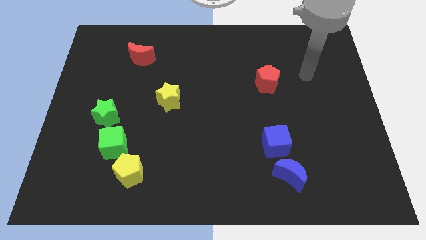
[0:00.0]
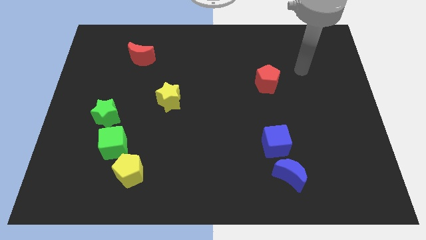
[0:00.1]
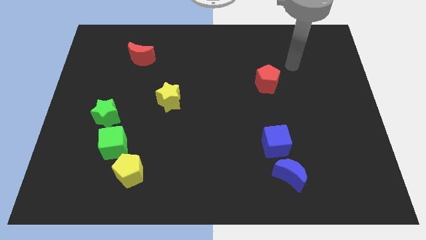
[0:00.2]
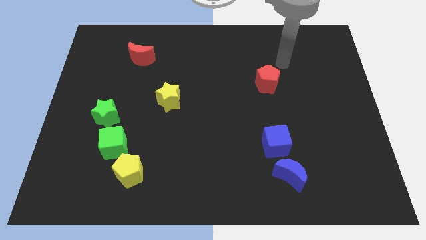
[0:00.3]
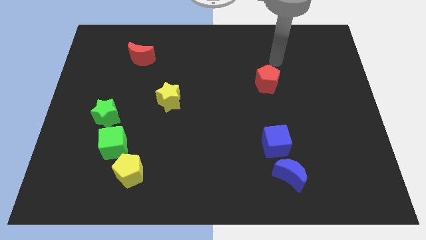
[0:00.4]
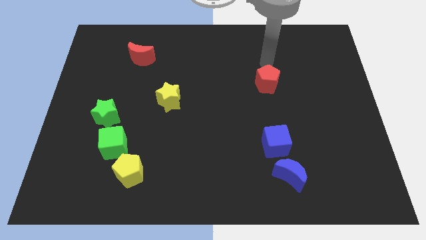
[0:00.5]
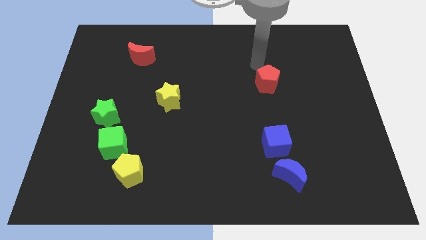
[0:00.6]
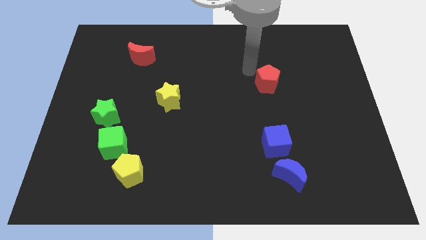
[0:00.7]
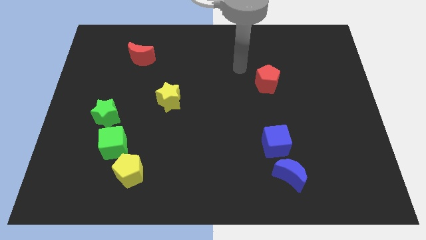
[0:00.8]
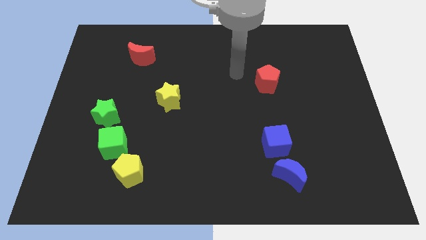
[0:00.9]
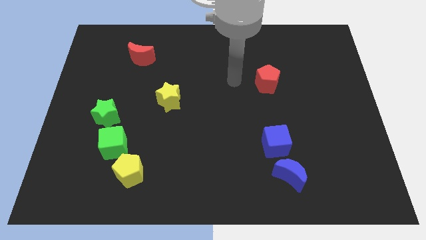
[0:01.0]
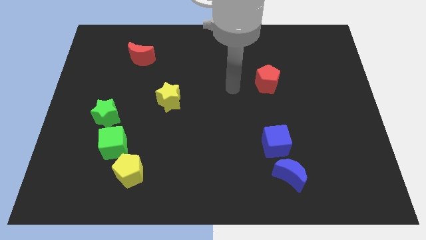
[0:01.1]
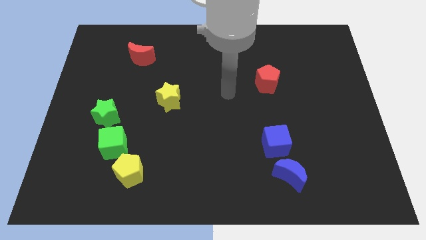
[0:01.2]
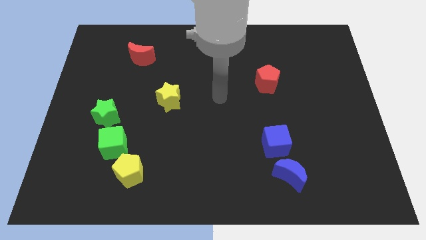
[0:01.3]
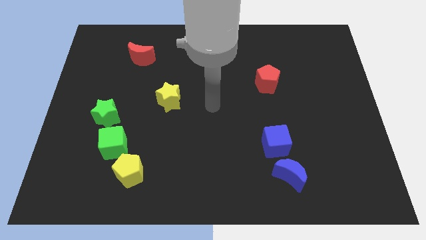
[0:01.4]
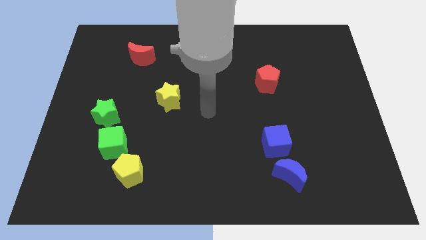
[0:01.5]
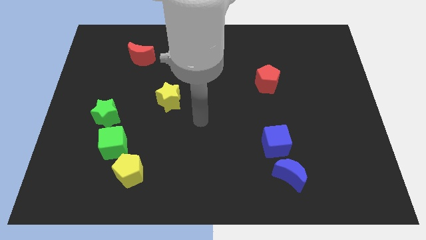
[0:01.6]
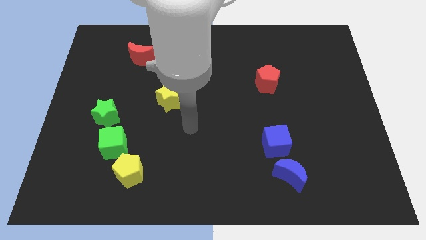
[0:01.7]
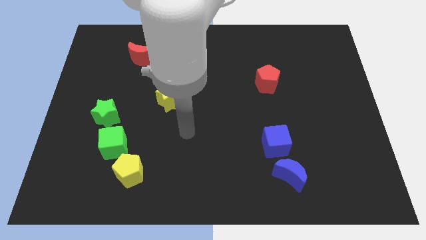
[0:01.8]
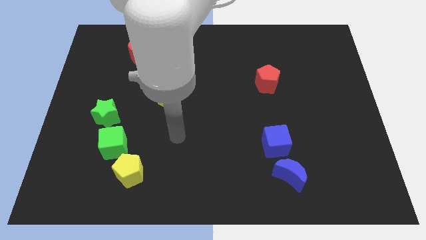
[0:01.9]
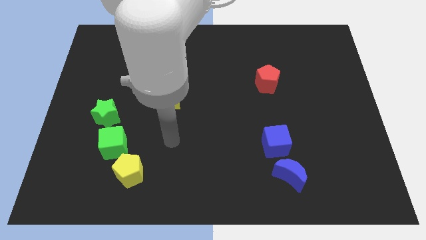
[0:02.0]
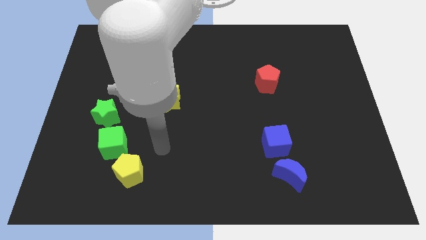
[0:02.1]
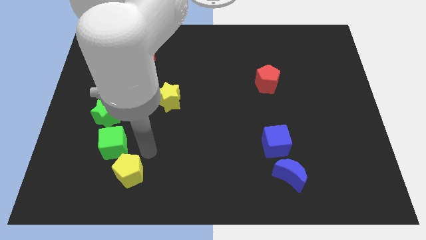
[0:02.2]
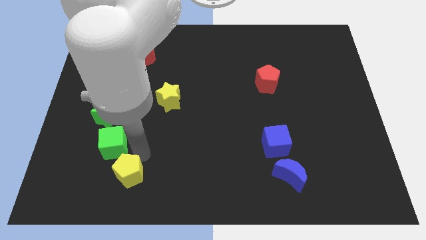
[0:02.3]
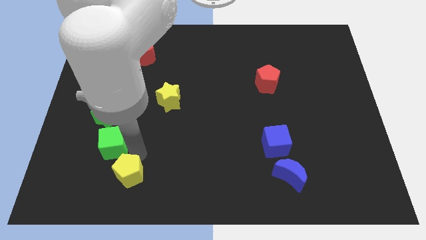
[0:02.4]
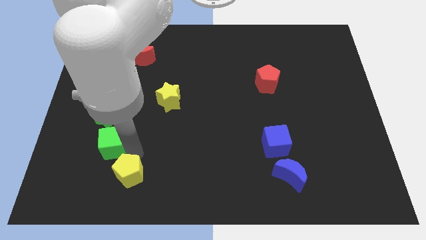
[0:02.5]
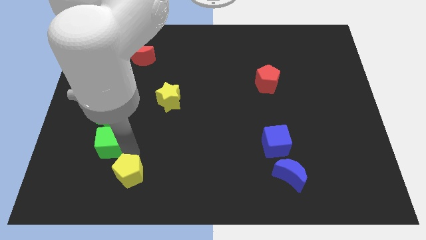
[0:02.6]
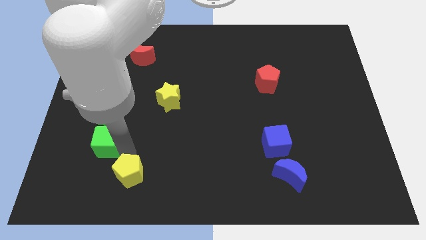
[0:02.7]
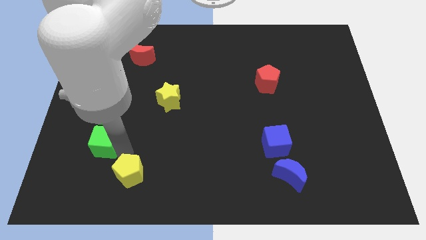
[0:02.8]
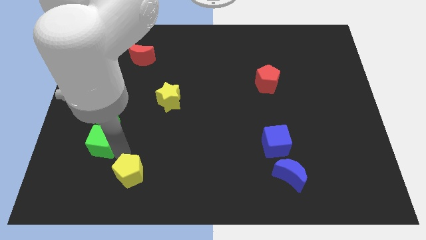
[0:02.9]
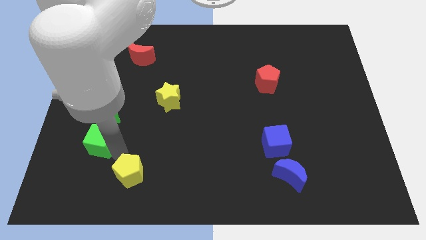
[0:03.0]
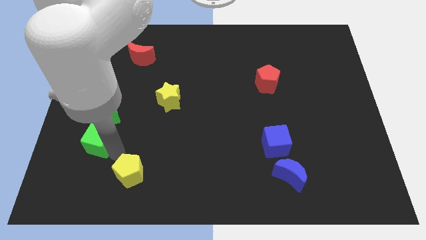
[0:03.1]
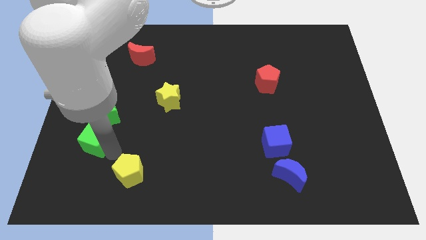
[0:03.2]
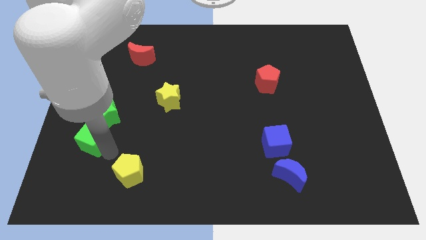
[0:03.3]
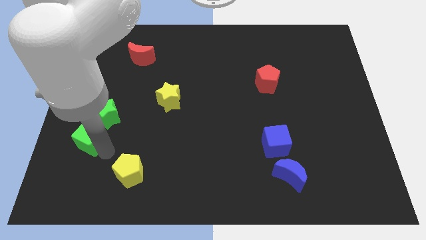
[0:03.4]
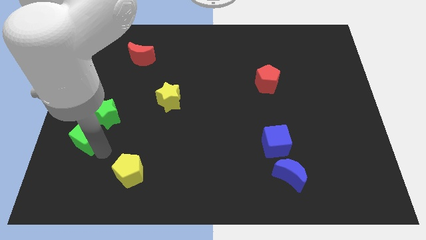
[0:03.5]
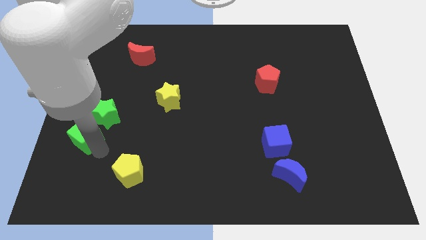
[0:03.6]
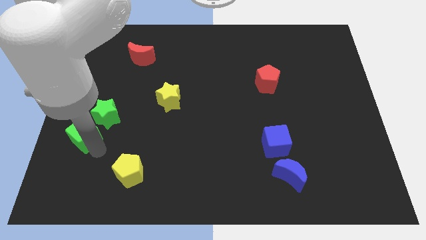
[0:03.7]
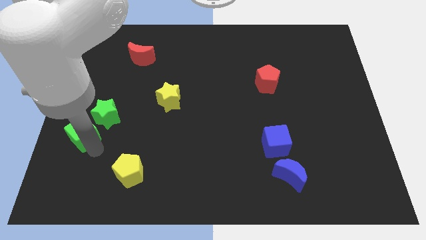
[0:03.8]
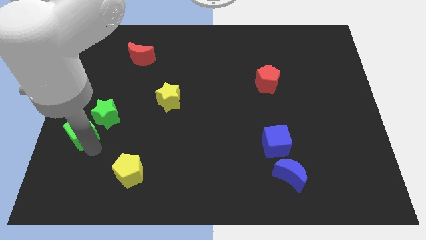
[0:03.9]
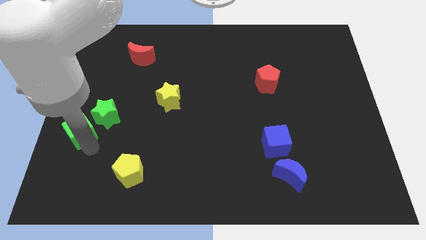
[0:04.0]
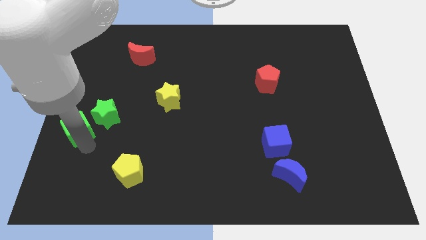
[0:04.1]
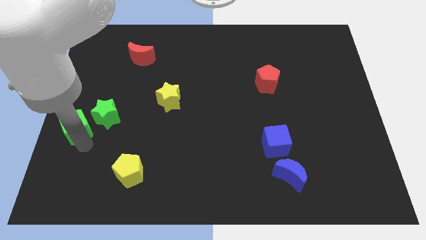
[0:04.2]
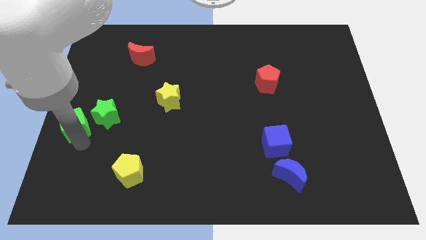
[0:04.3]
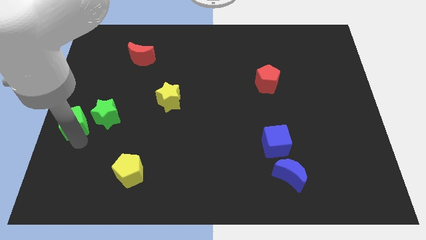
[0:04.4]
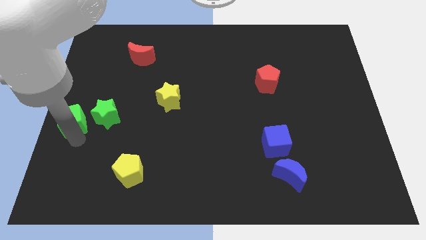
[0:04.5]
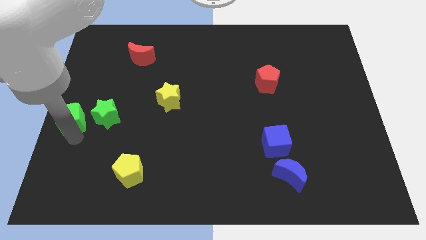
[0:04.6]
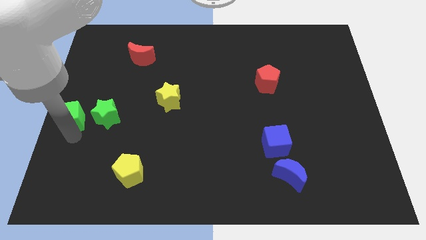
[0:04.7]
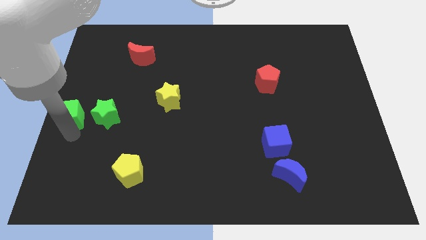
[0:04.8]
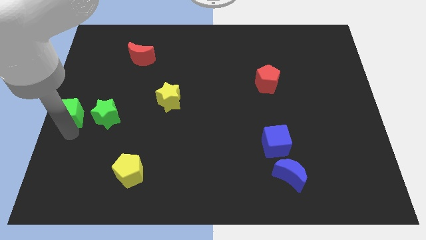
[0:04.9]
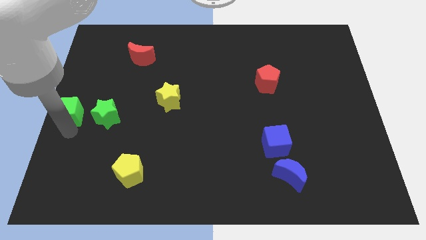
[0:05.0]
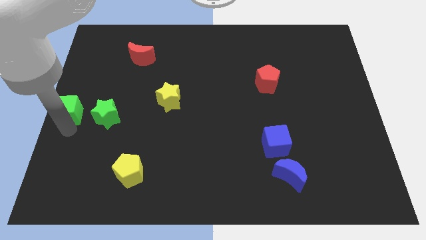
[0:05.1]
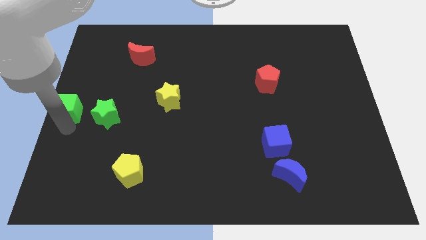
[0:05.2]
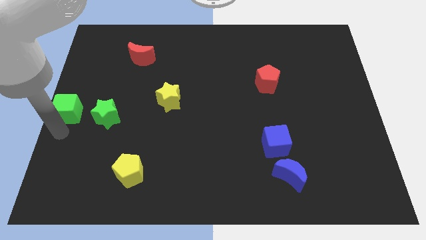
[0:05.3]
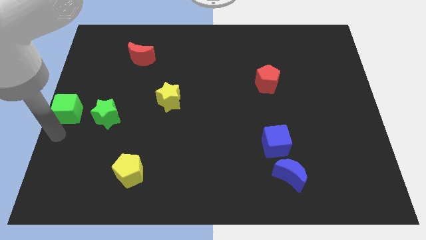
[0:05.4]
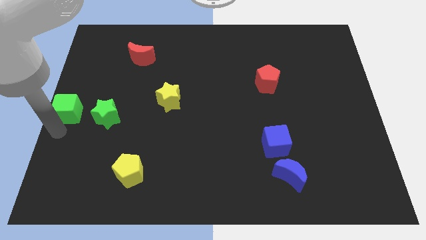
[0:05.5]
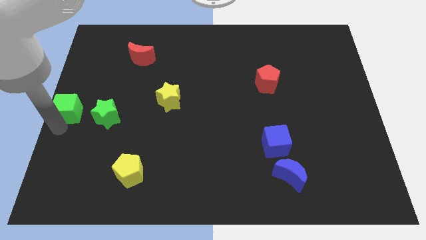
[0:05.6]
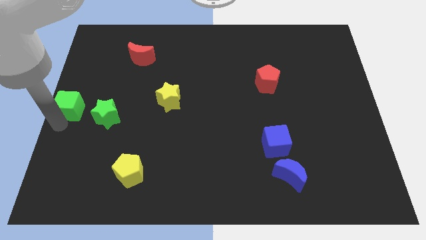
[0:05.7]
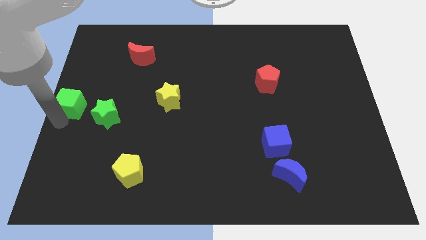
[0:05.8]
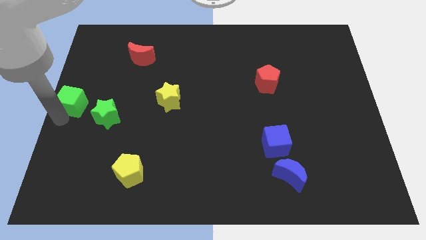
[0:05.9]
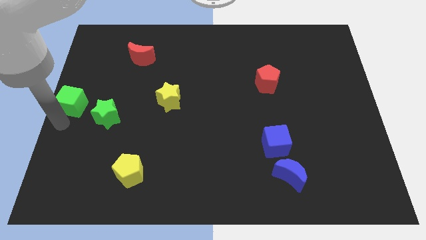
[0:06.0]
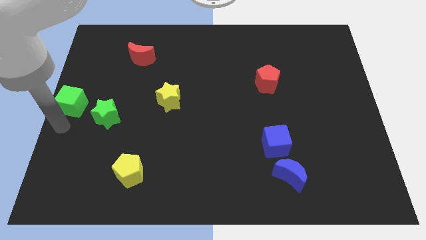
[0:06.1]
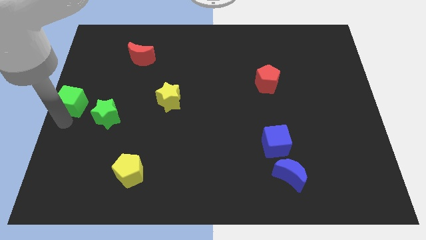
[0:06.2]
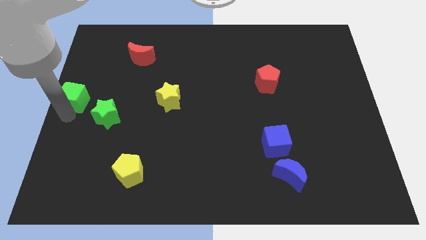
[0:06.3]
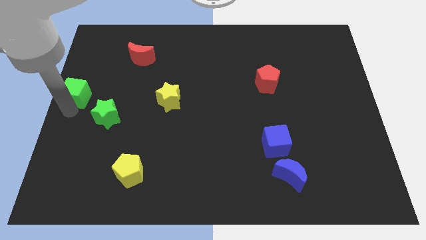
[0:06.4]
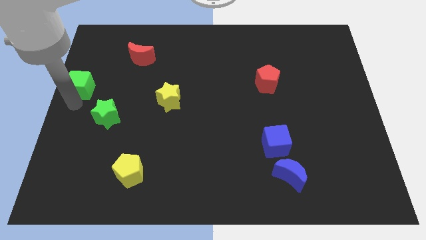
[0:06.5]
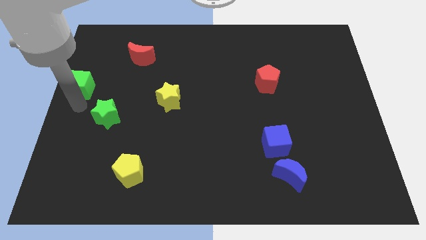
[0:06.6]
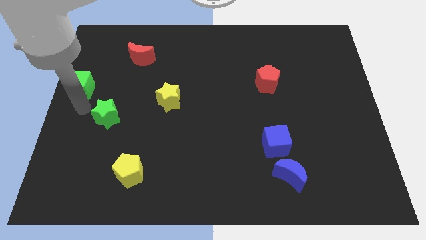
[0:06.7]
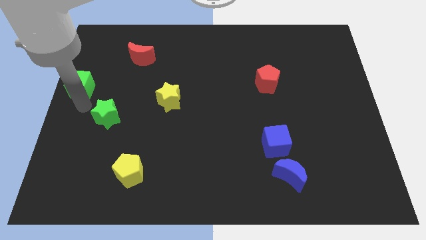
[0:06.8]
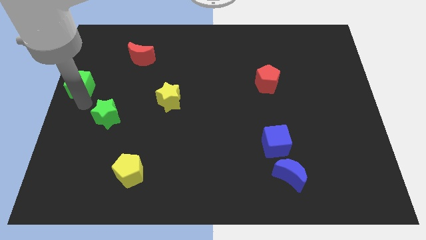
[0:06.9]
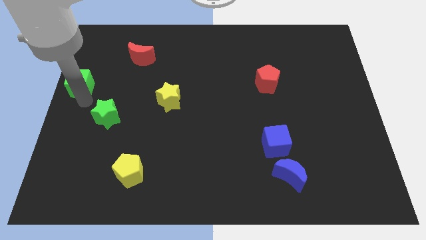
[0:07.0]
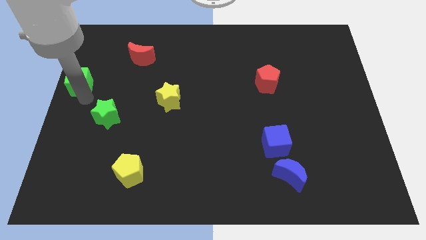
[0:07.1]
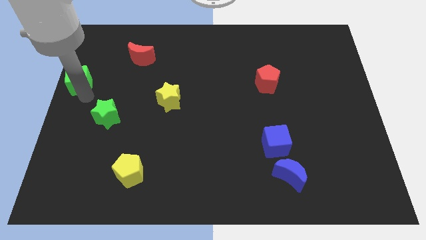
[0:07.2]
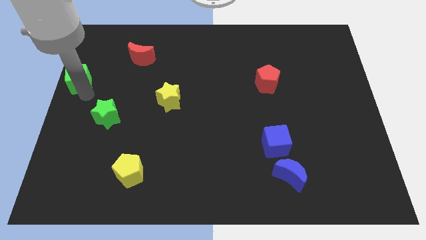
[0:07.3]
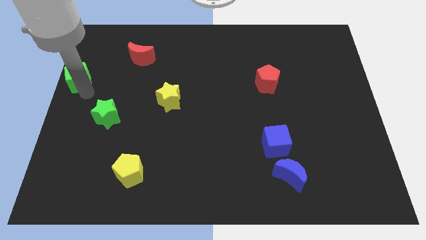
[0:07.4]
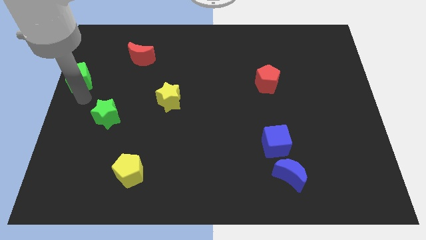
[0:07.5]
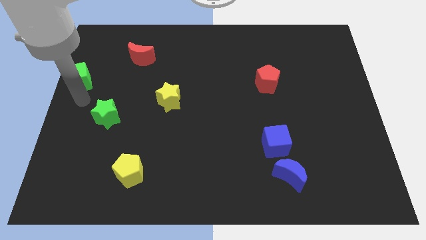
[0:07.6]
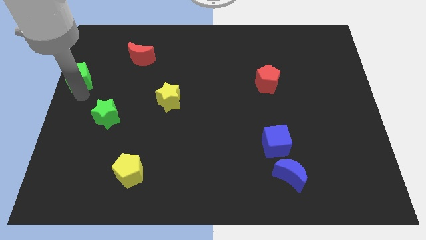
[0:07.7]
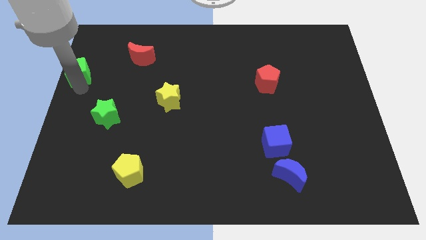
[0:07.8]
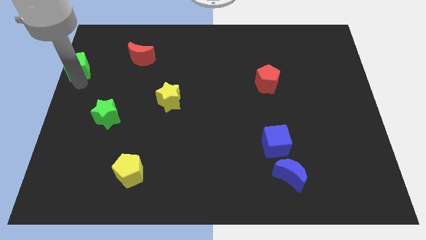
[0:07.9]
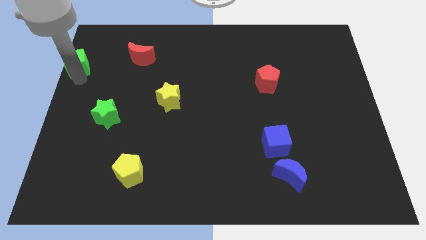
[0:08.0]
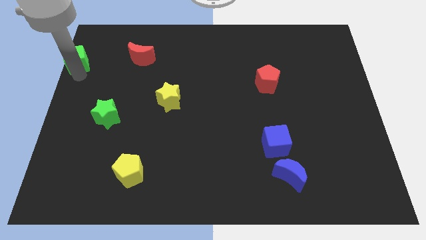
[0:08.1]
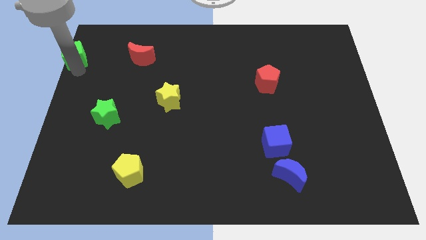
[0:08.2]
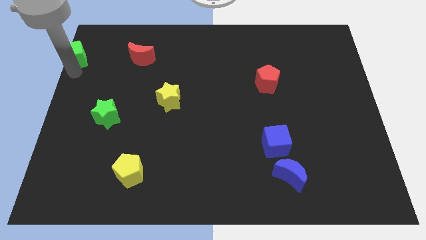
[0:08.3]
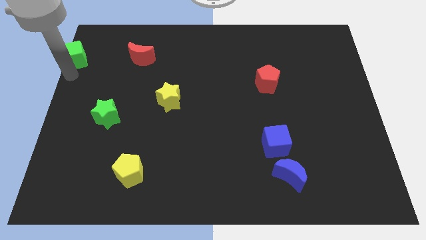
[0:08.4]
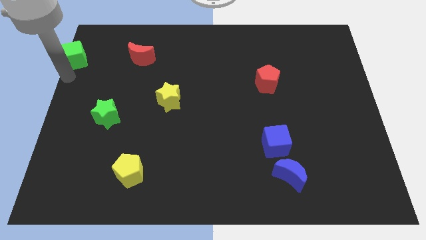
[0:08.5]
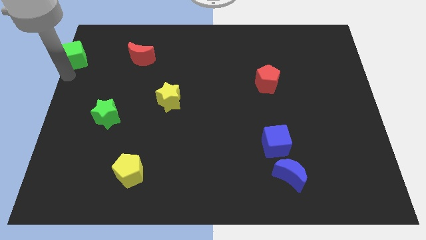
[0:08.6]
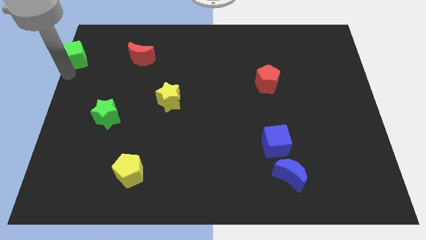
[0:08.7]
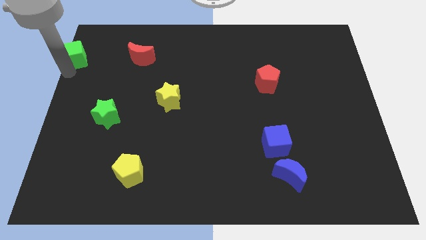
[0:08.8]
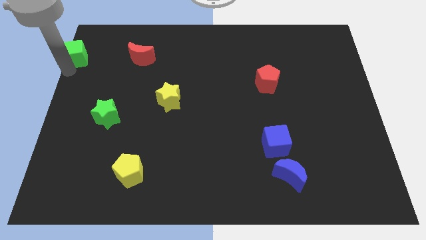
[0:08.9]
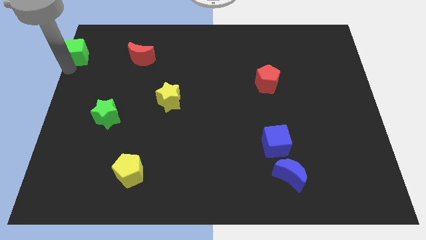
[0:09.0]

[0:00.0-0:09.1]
put the green cube to the top left of the board
